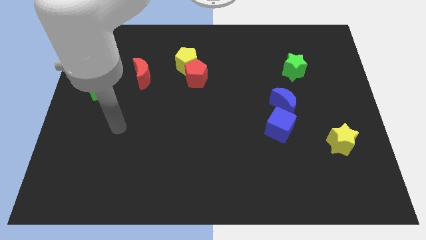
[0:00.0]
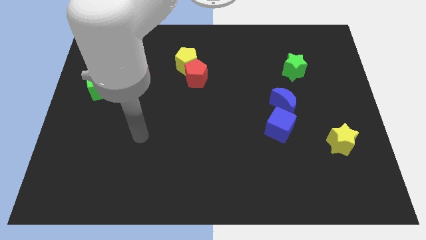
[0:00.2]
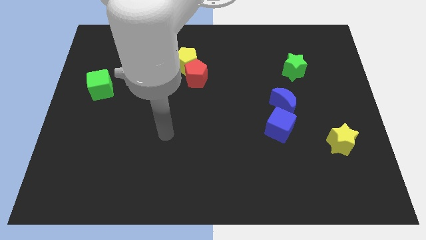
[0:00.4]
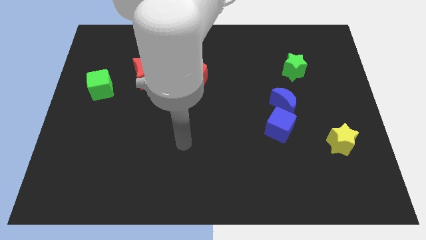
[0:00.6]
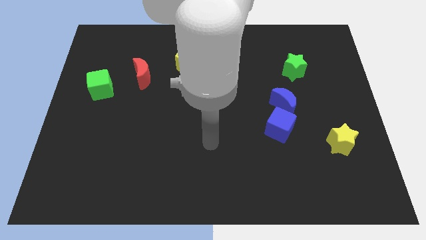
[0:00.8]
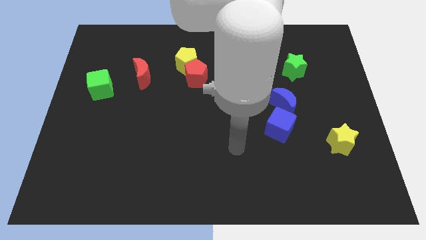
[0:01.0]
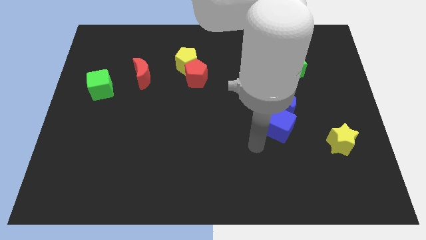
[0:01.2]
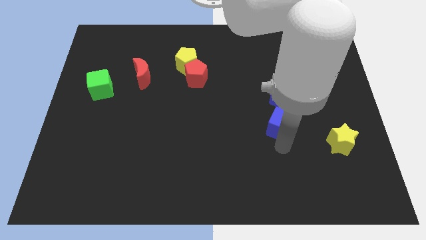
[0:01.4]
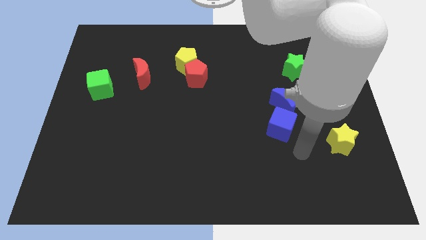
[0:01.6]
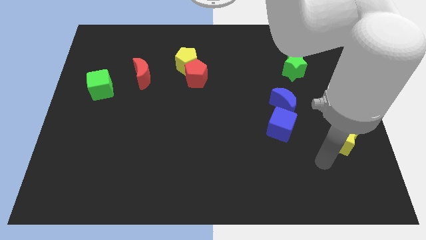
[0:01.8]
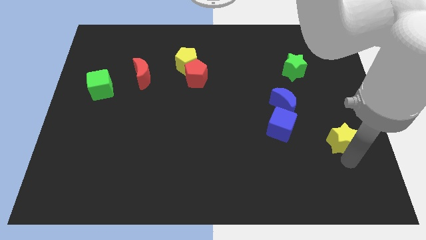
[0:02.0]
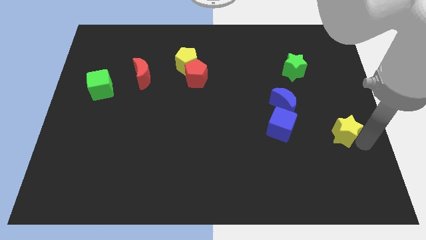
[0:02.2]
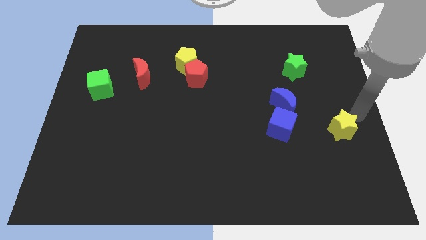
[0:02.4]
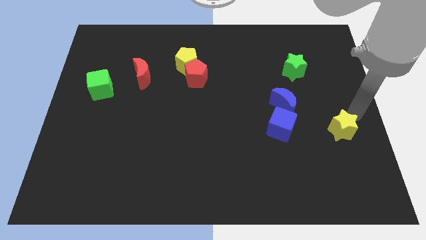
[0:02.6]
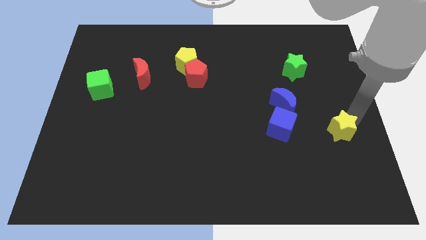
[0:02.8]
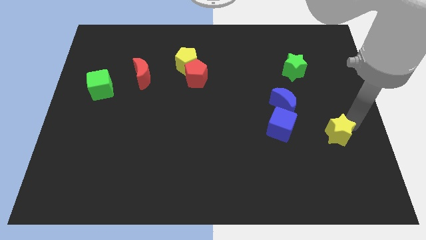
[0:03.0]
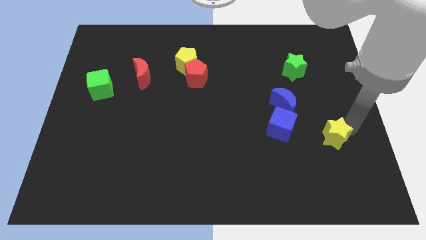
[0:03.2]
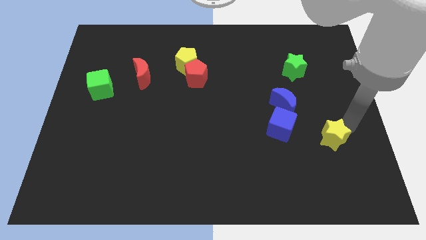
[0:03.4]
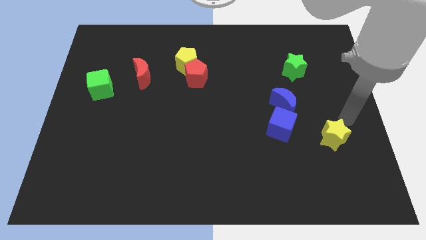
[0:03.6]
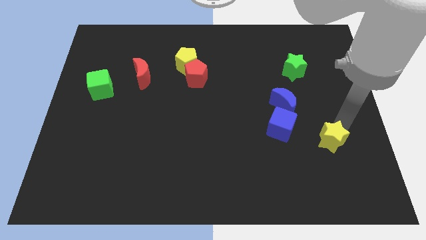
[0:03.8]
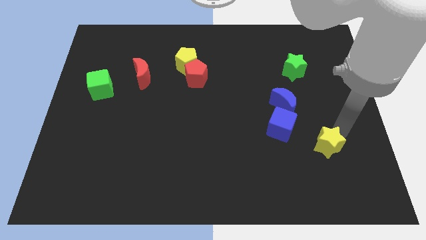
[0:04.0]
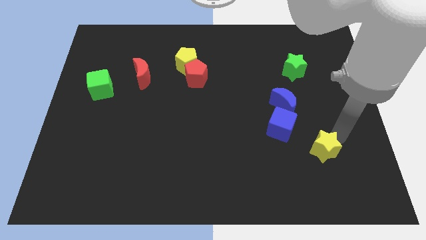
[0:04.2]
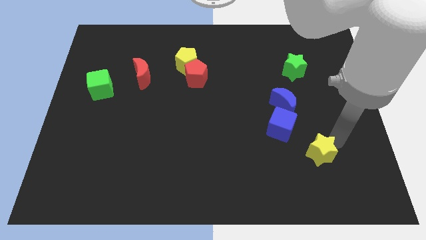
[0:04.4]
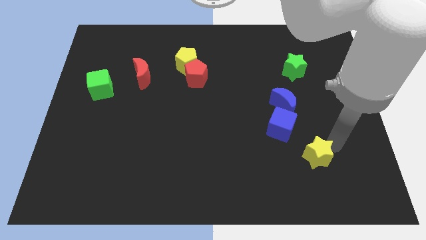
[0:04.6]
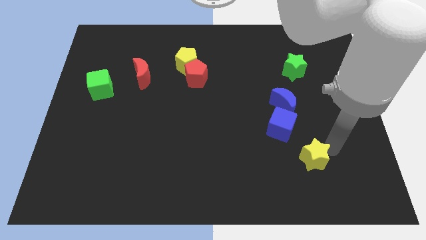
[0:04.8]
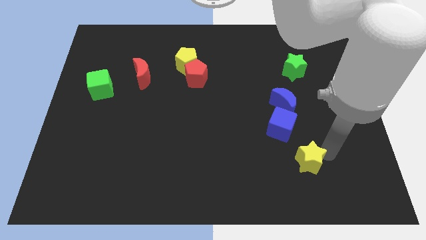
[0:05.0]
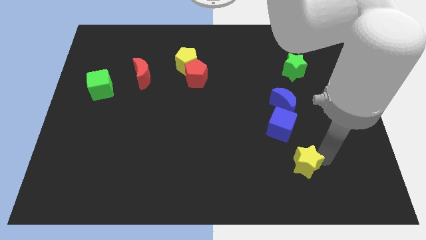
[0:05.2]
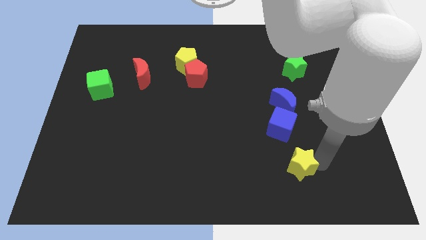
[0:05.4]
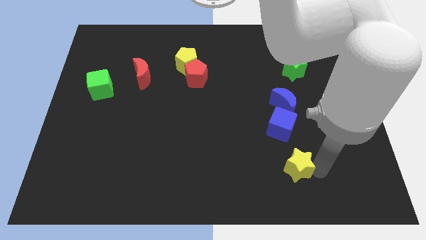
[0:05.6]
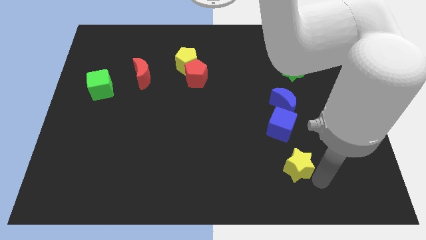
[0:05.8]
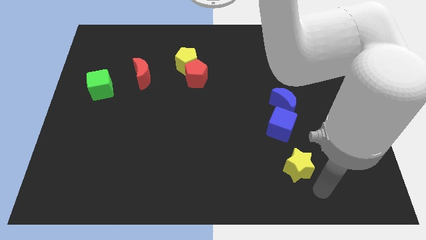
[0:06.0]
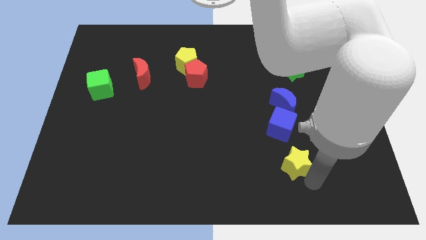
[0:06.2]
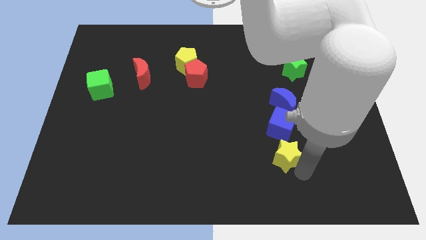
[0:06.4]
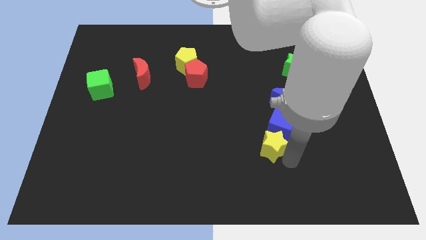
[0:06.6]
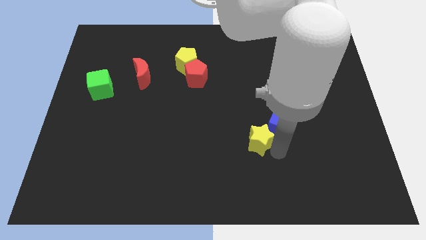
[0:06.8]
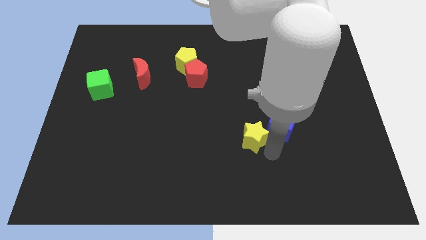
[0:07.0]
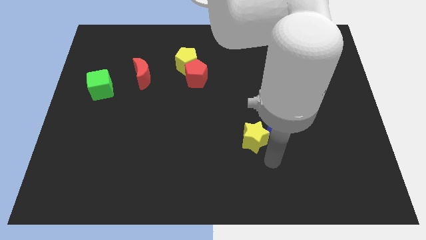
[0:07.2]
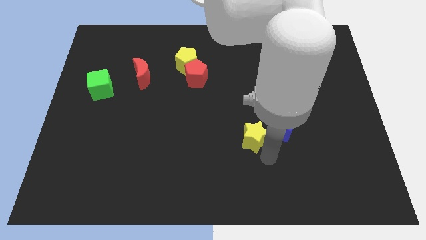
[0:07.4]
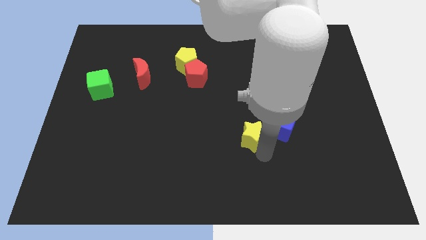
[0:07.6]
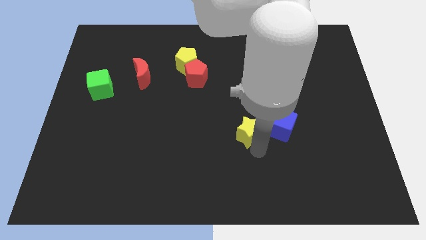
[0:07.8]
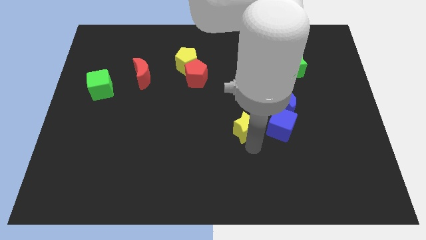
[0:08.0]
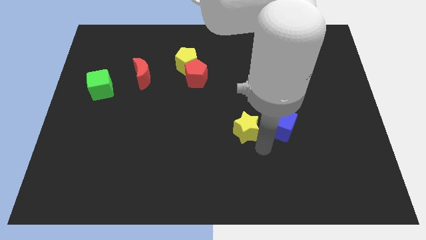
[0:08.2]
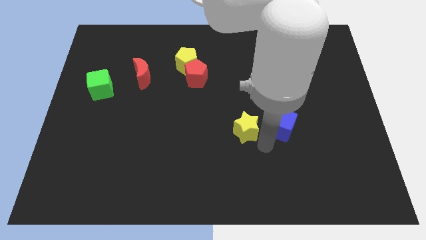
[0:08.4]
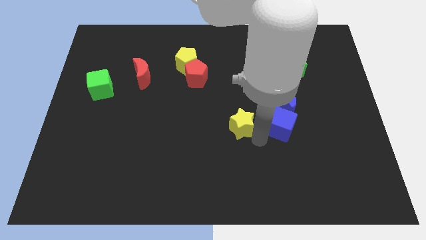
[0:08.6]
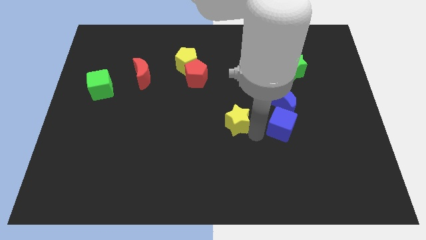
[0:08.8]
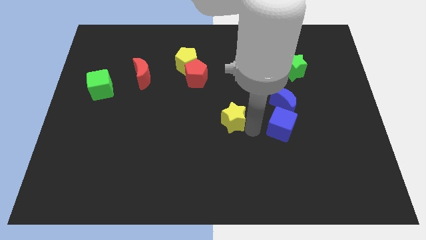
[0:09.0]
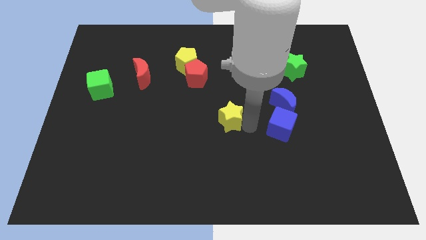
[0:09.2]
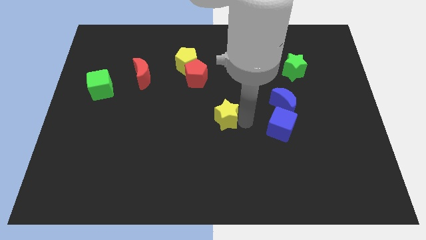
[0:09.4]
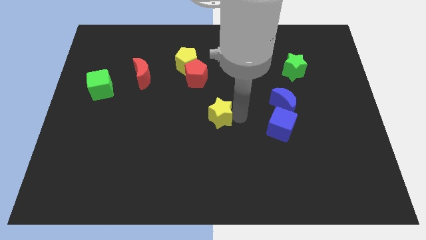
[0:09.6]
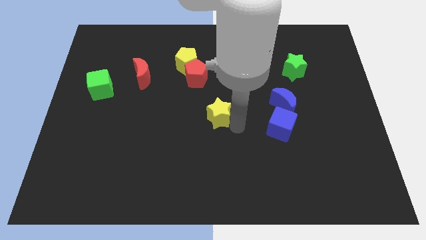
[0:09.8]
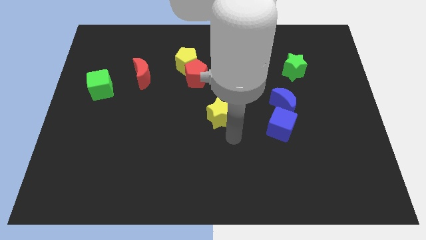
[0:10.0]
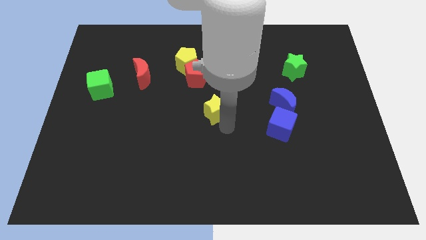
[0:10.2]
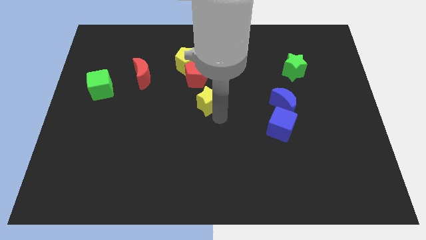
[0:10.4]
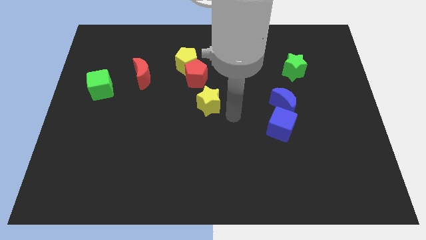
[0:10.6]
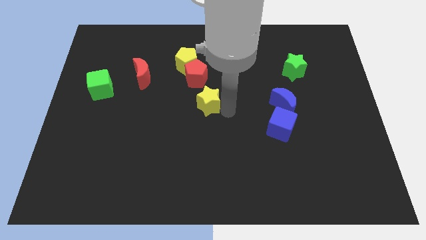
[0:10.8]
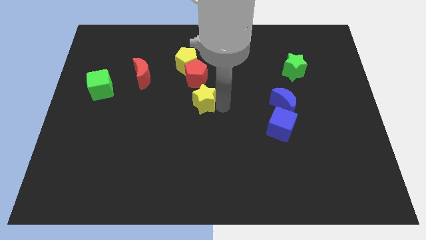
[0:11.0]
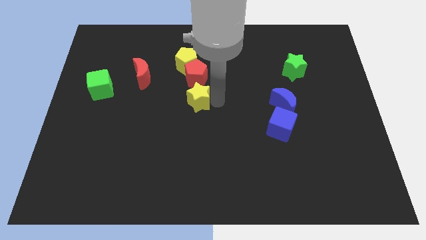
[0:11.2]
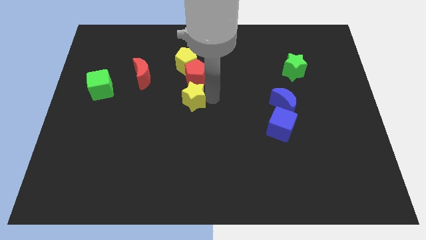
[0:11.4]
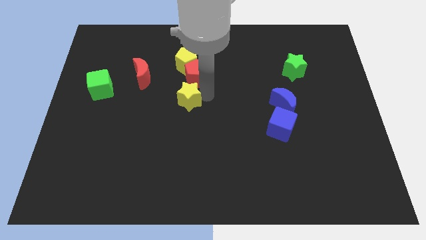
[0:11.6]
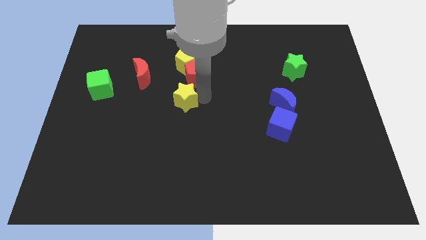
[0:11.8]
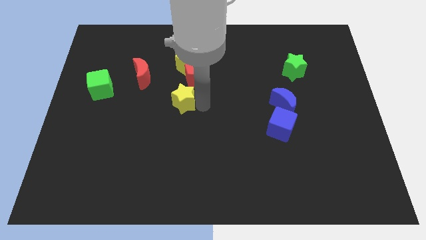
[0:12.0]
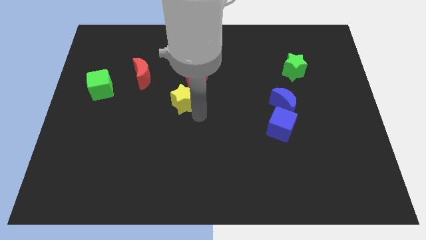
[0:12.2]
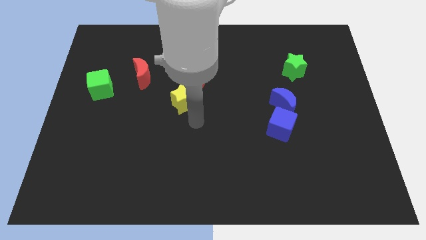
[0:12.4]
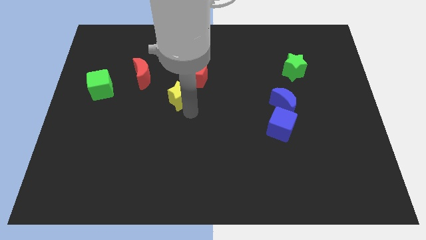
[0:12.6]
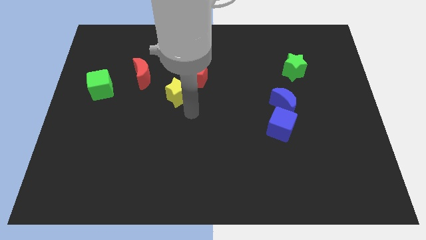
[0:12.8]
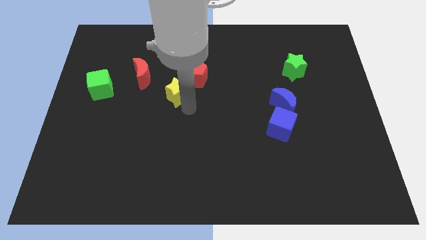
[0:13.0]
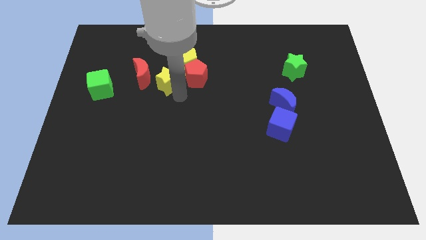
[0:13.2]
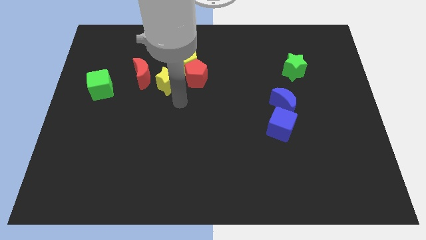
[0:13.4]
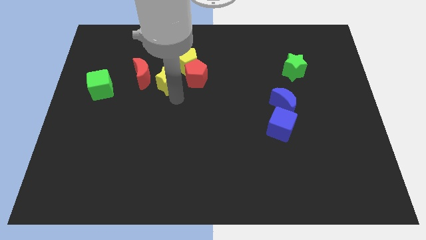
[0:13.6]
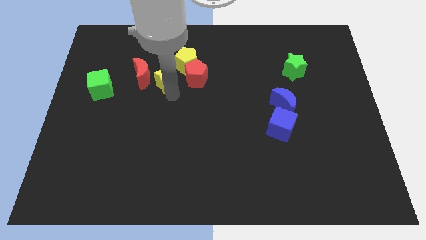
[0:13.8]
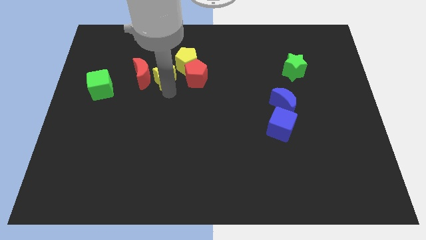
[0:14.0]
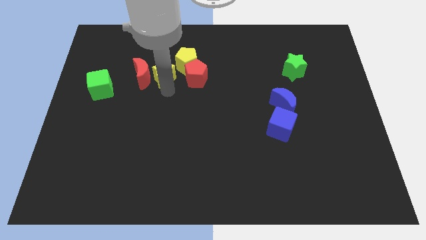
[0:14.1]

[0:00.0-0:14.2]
slide the yellow star to the left side of the yellow pentagon
